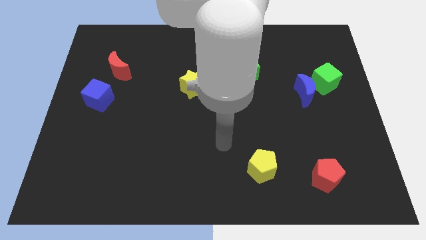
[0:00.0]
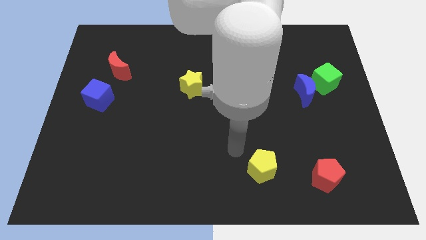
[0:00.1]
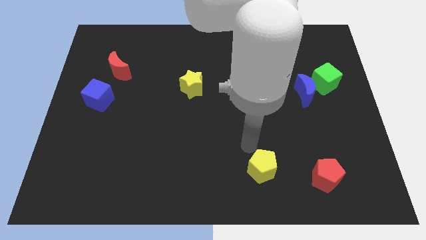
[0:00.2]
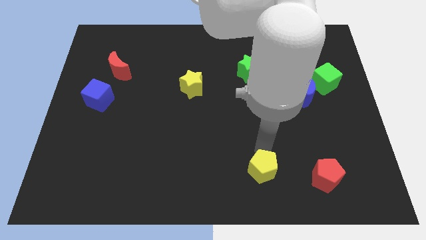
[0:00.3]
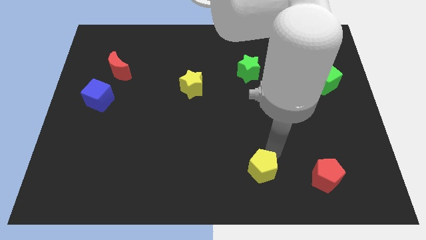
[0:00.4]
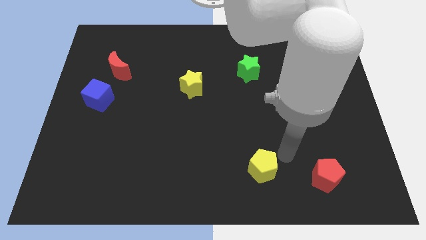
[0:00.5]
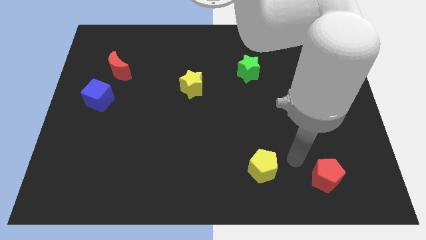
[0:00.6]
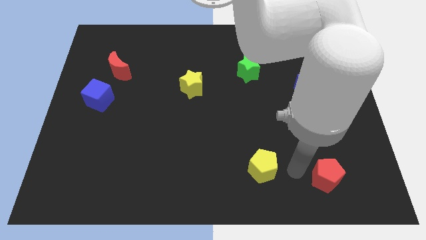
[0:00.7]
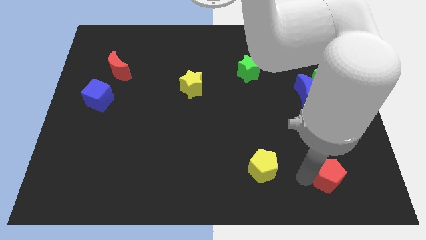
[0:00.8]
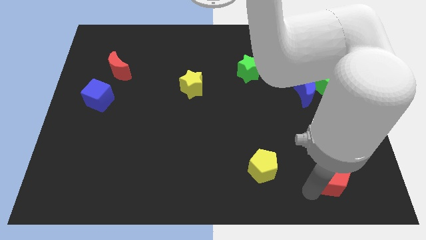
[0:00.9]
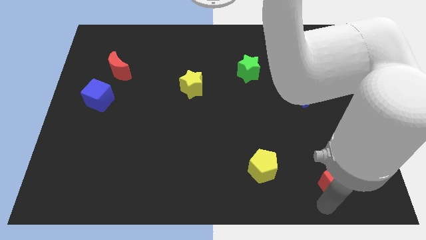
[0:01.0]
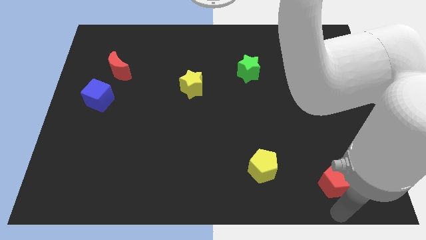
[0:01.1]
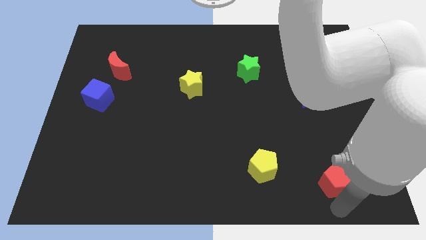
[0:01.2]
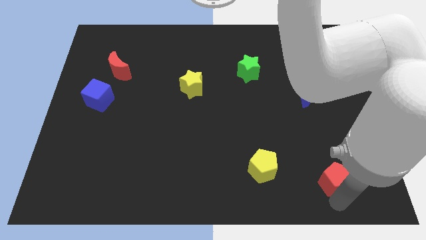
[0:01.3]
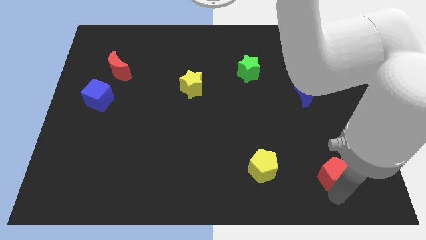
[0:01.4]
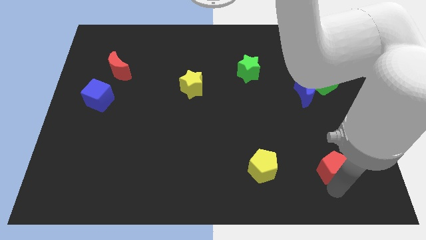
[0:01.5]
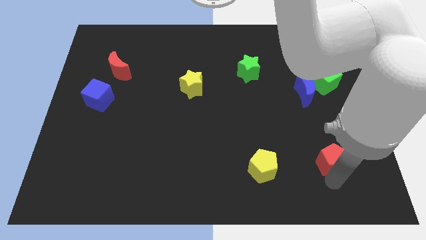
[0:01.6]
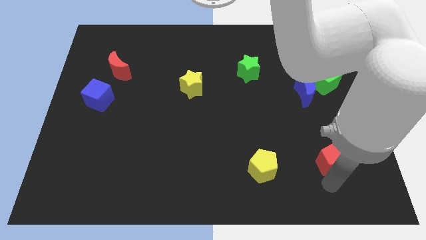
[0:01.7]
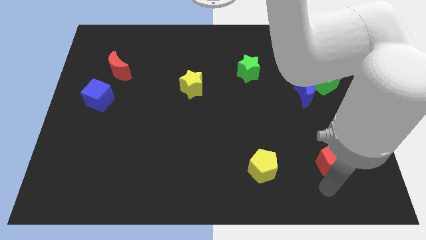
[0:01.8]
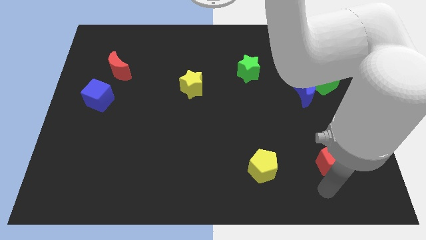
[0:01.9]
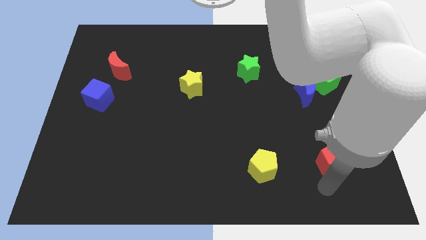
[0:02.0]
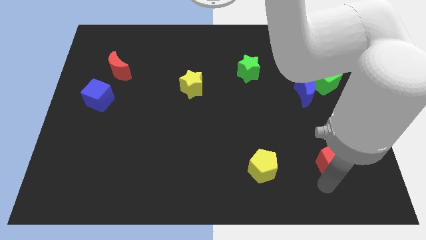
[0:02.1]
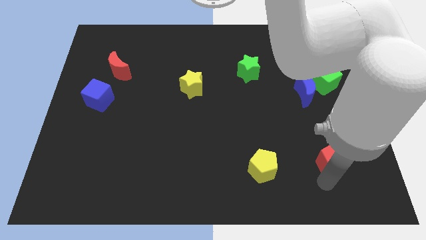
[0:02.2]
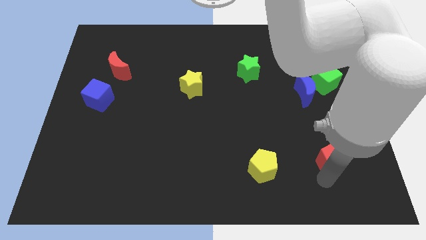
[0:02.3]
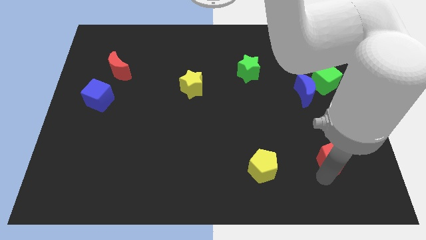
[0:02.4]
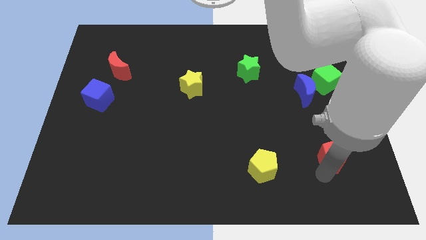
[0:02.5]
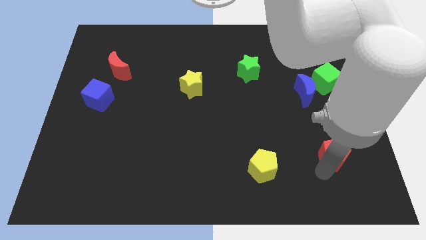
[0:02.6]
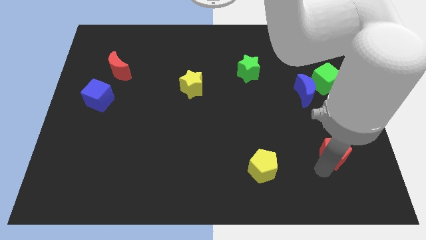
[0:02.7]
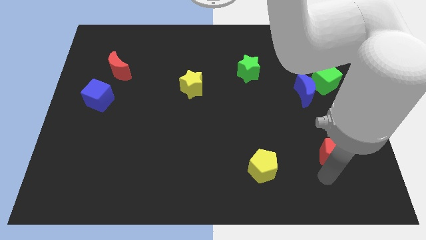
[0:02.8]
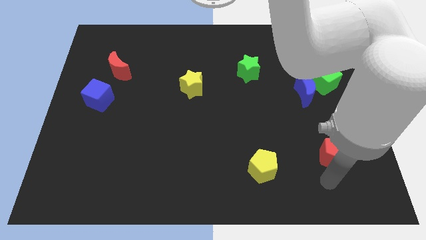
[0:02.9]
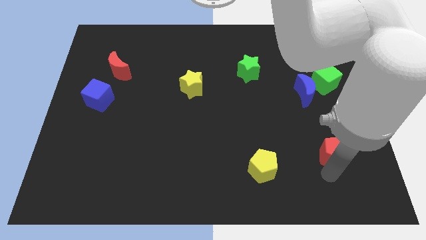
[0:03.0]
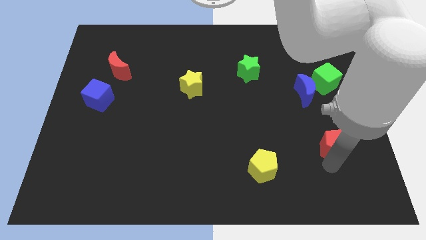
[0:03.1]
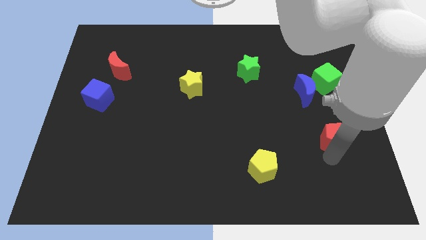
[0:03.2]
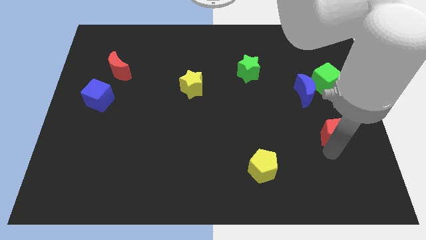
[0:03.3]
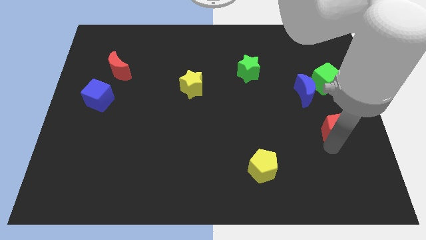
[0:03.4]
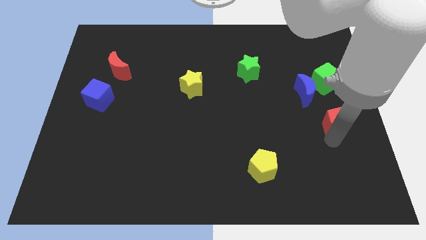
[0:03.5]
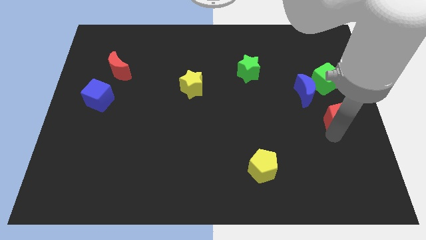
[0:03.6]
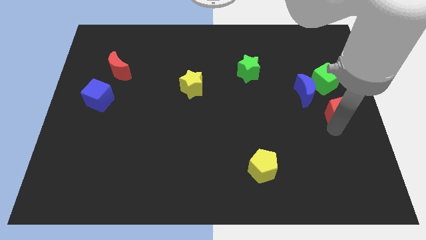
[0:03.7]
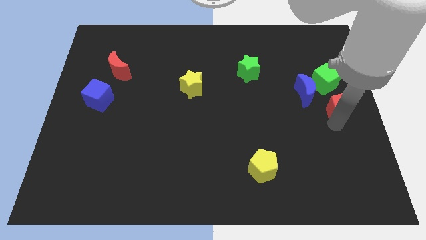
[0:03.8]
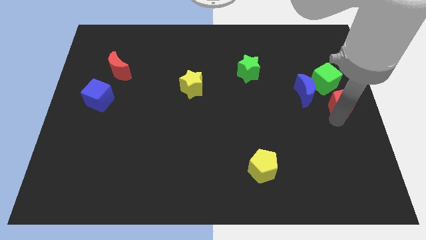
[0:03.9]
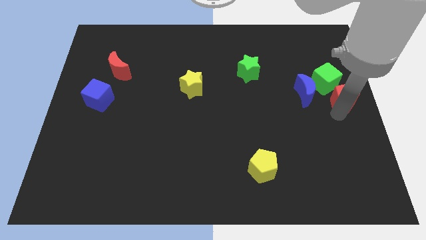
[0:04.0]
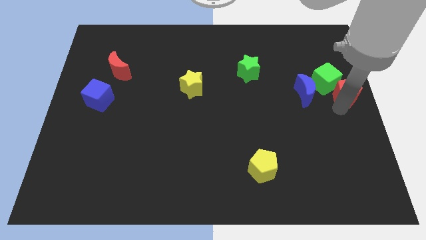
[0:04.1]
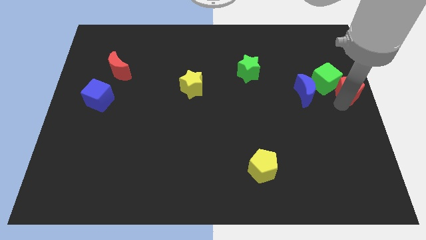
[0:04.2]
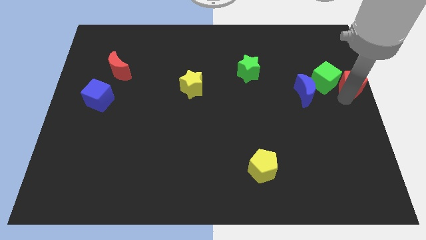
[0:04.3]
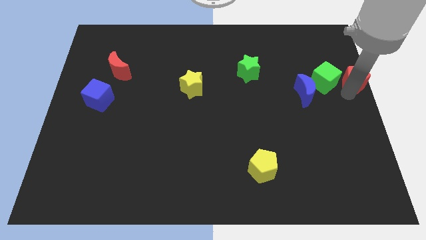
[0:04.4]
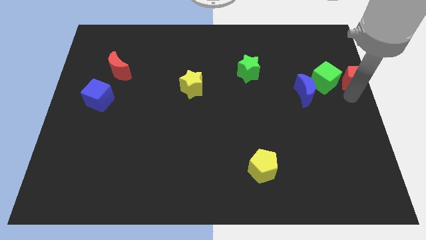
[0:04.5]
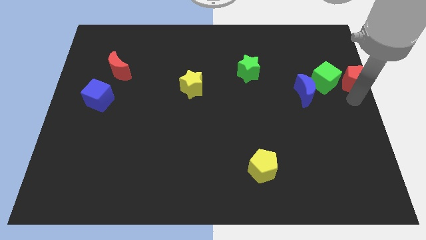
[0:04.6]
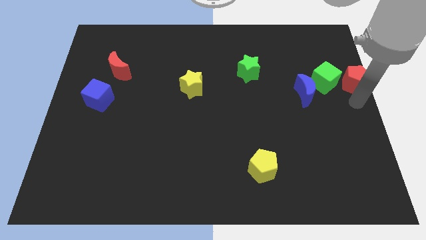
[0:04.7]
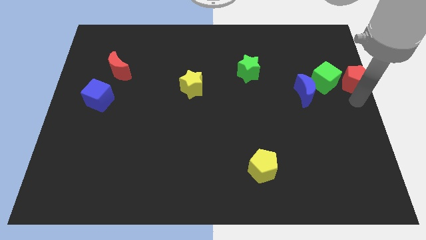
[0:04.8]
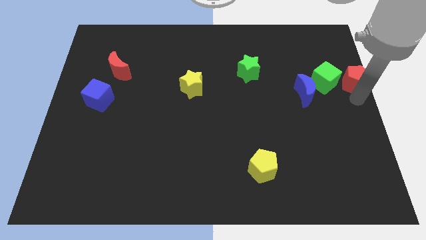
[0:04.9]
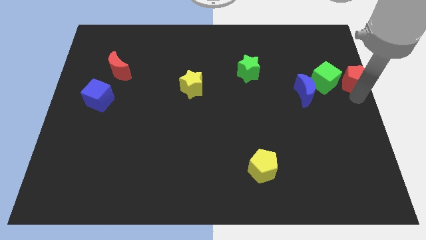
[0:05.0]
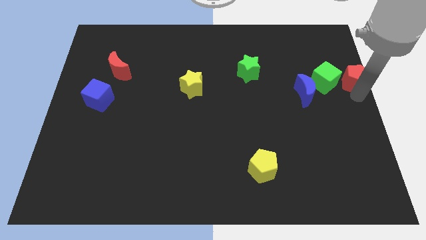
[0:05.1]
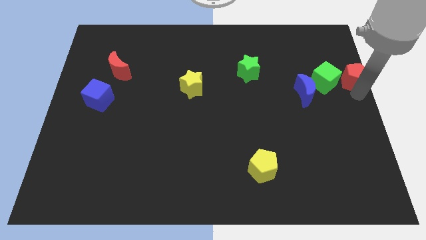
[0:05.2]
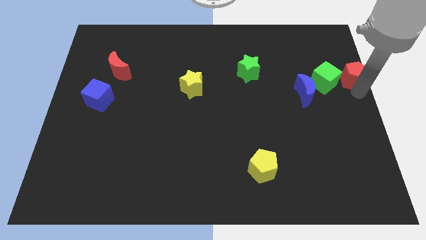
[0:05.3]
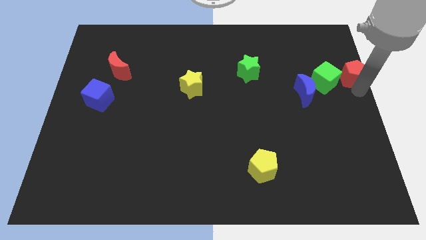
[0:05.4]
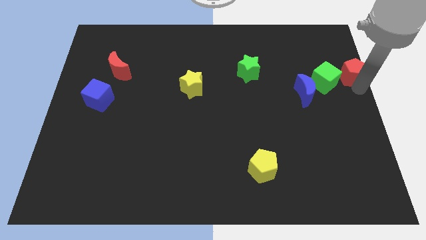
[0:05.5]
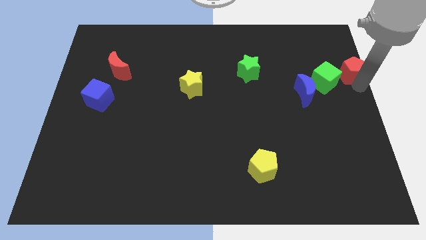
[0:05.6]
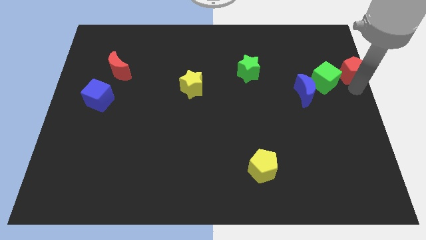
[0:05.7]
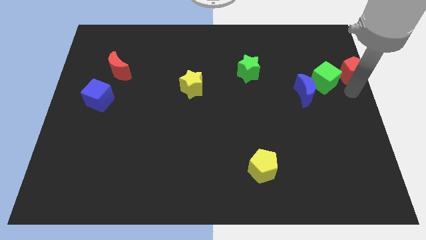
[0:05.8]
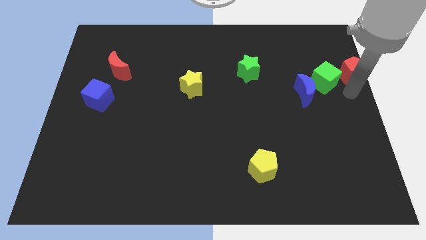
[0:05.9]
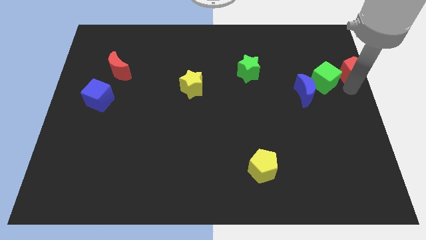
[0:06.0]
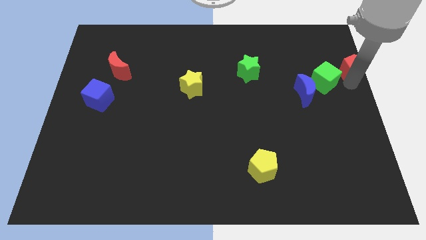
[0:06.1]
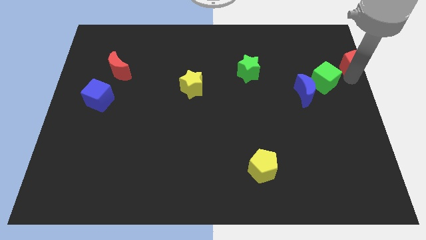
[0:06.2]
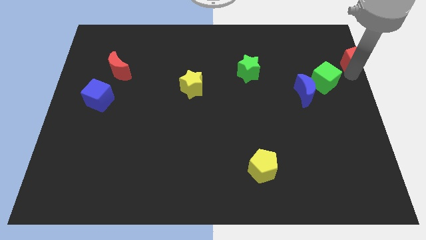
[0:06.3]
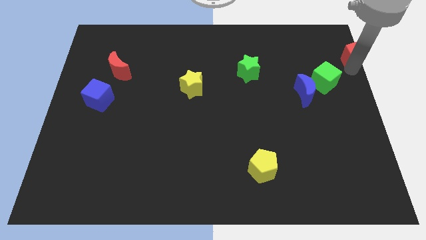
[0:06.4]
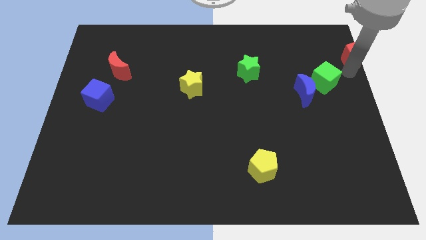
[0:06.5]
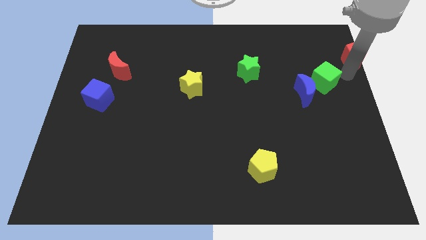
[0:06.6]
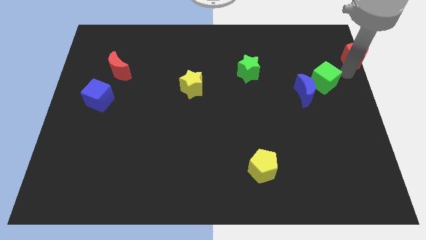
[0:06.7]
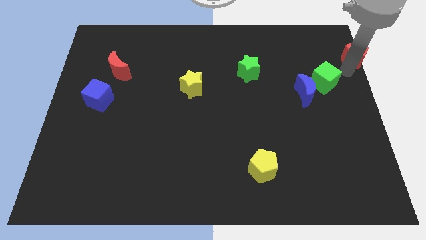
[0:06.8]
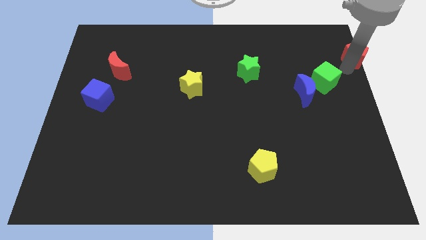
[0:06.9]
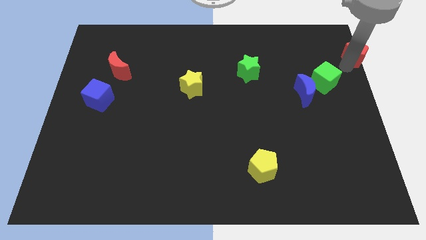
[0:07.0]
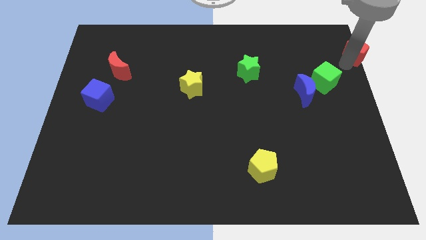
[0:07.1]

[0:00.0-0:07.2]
push the red pentagon to the upper right corner
